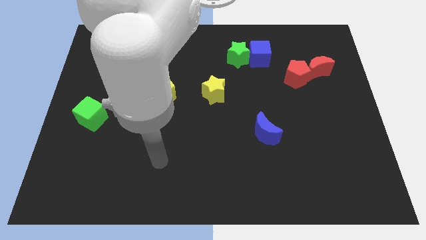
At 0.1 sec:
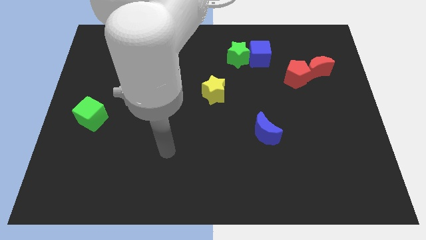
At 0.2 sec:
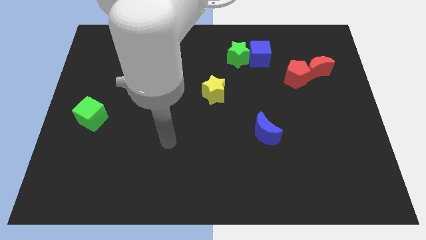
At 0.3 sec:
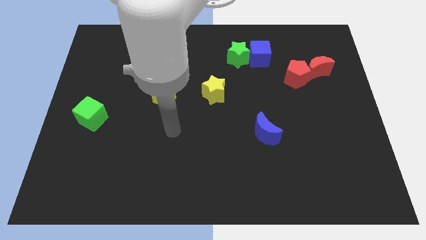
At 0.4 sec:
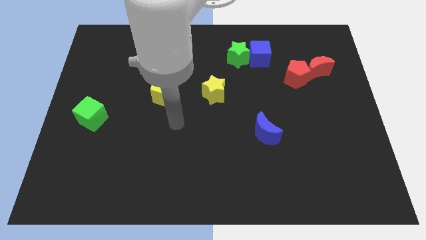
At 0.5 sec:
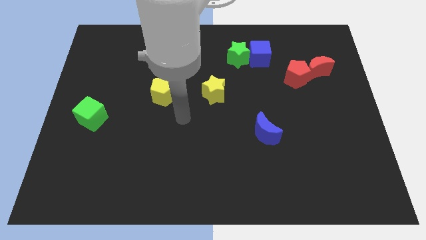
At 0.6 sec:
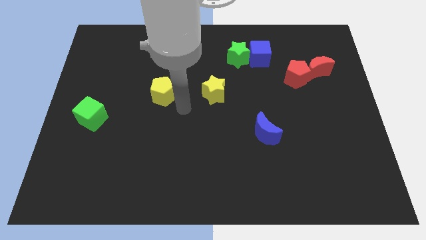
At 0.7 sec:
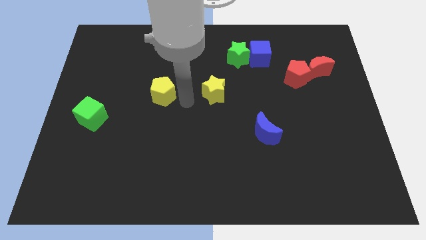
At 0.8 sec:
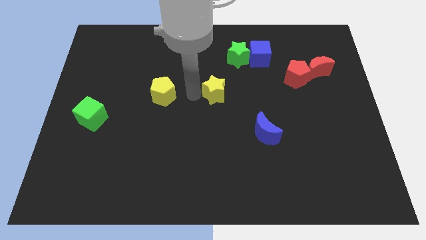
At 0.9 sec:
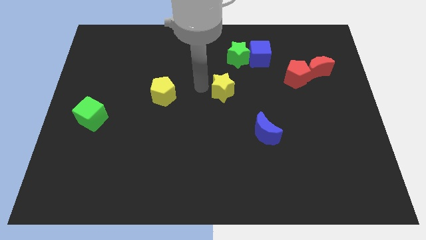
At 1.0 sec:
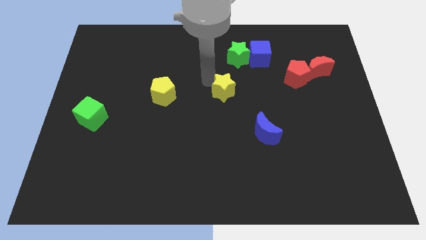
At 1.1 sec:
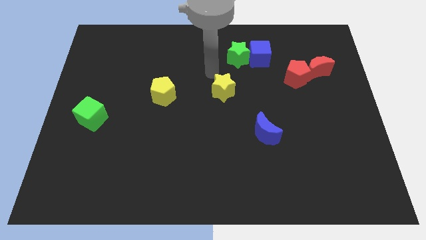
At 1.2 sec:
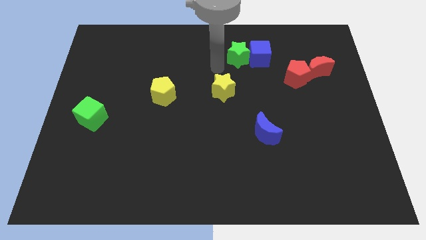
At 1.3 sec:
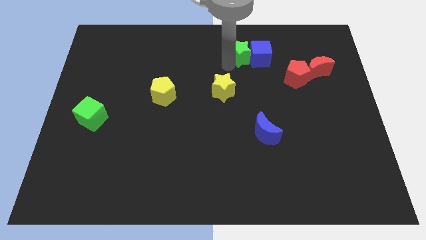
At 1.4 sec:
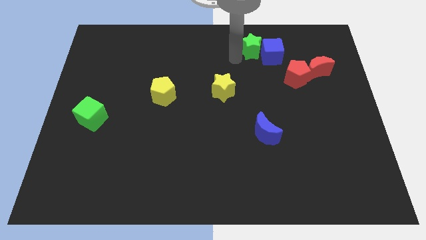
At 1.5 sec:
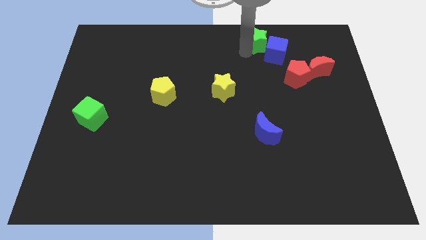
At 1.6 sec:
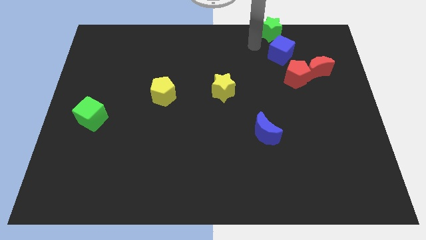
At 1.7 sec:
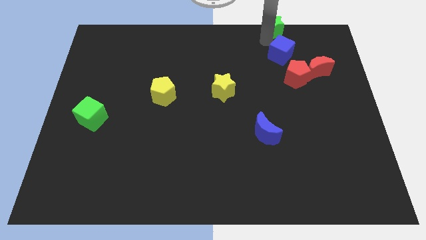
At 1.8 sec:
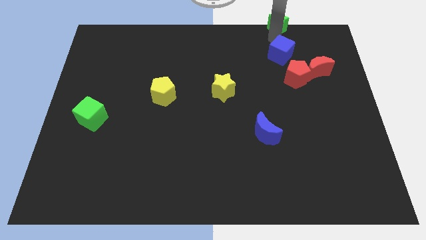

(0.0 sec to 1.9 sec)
pull the blue cube apart from the green star

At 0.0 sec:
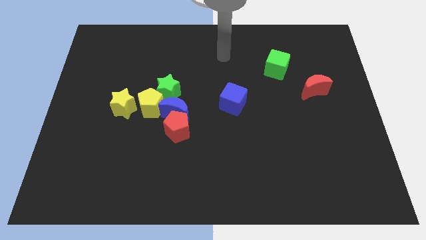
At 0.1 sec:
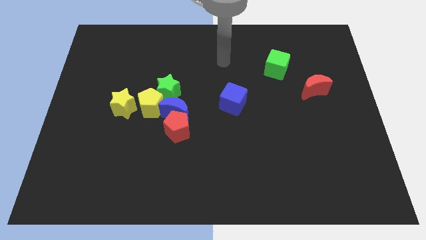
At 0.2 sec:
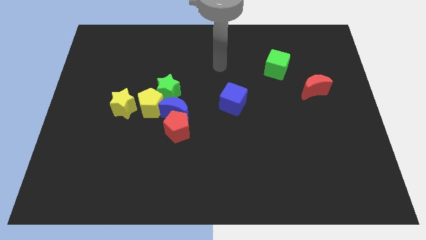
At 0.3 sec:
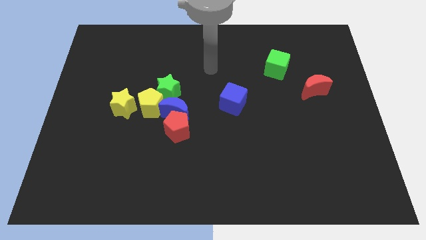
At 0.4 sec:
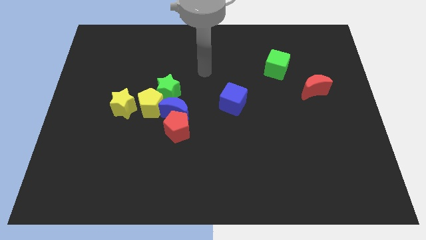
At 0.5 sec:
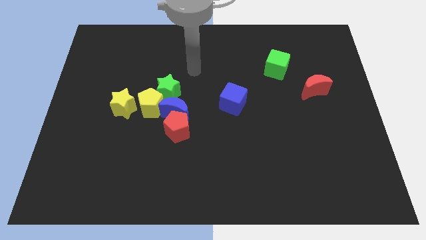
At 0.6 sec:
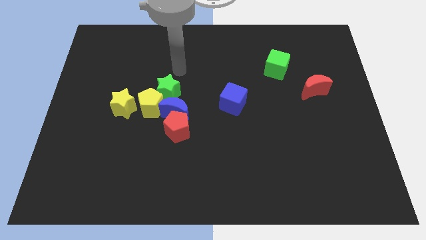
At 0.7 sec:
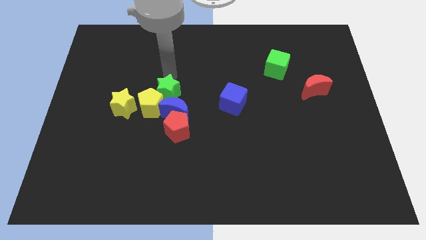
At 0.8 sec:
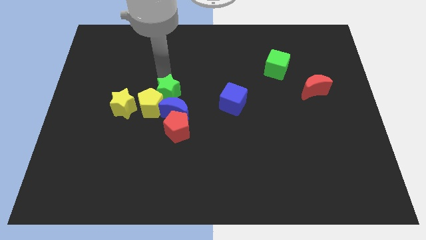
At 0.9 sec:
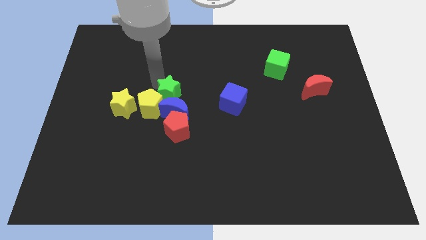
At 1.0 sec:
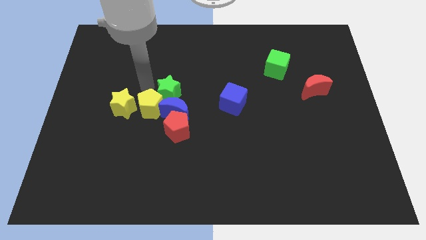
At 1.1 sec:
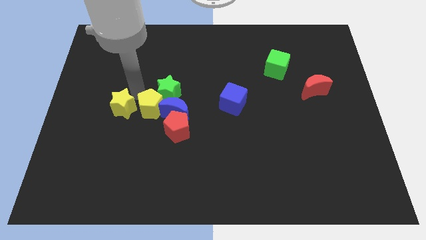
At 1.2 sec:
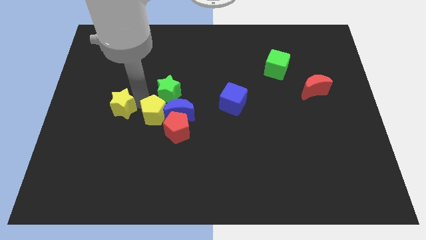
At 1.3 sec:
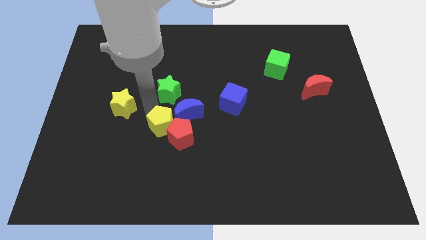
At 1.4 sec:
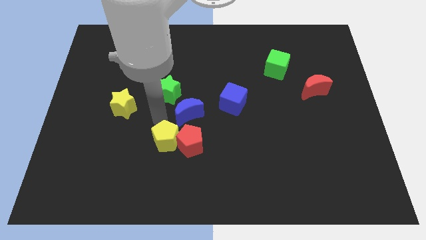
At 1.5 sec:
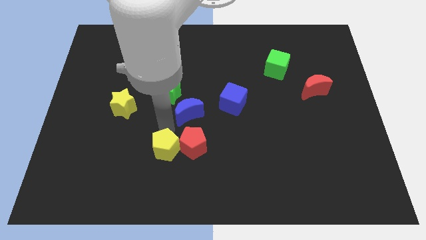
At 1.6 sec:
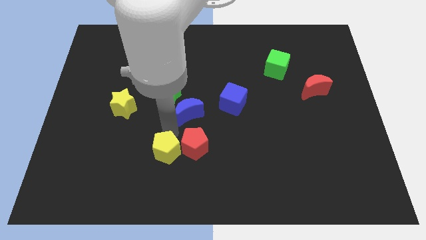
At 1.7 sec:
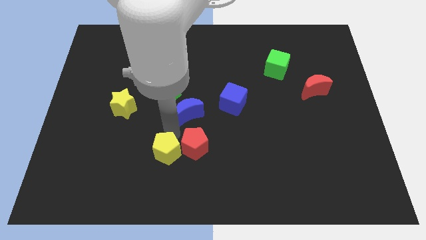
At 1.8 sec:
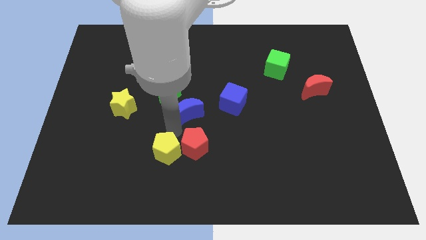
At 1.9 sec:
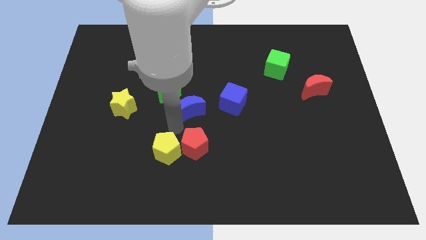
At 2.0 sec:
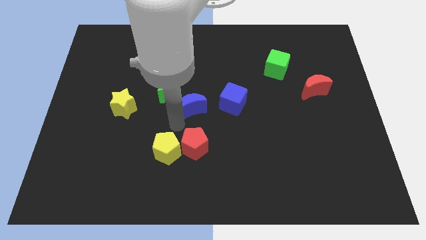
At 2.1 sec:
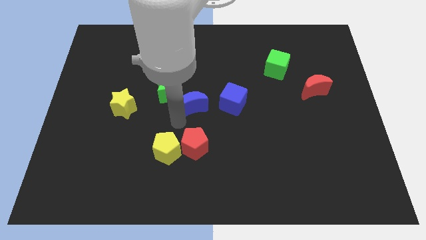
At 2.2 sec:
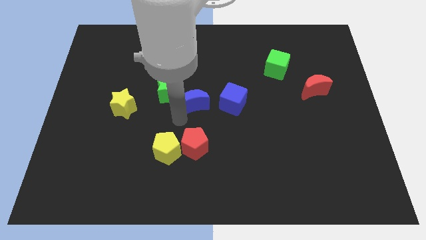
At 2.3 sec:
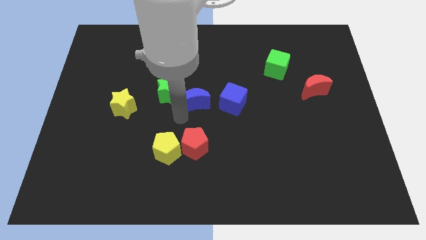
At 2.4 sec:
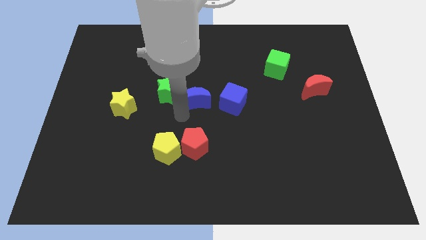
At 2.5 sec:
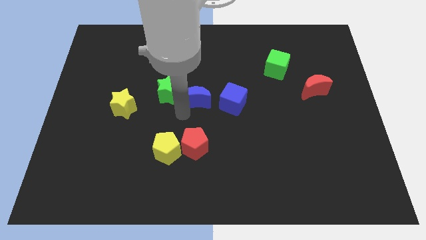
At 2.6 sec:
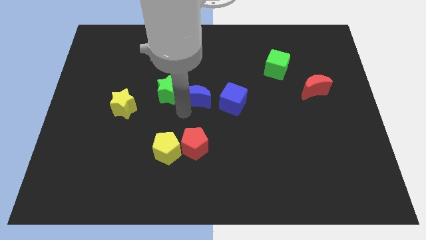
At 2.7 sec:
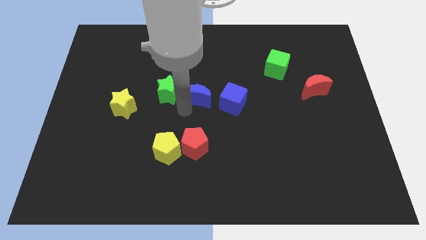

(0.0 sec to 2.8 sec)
separate the blue moon from the red pentagon, yellow pentagon, and green star

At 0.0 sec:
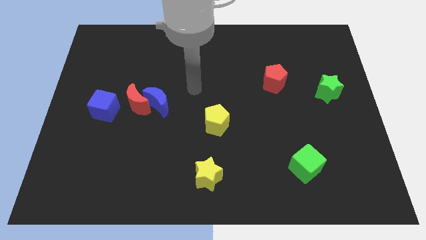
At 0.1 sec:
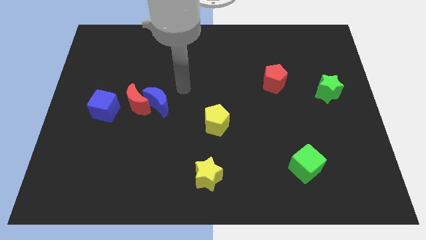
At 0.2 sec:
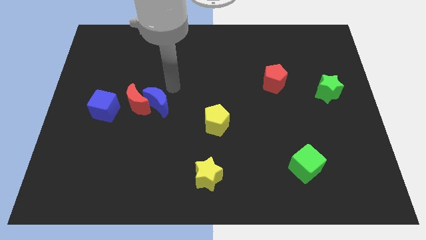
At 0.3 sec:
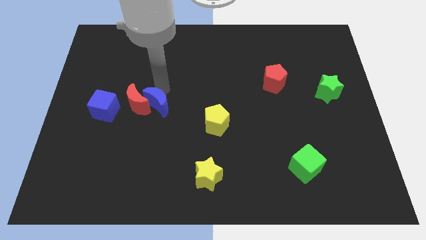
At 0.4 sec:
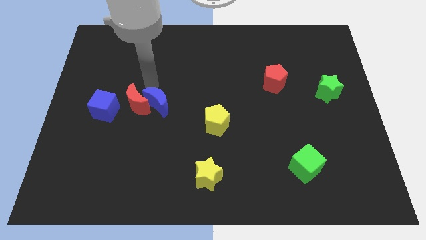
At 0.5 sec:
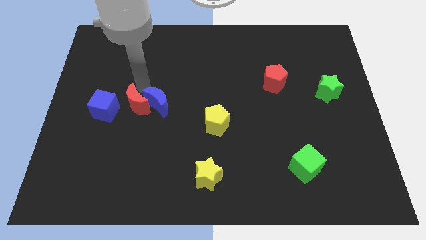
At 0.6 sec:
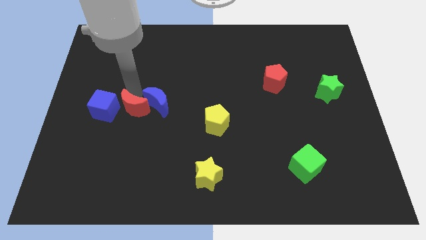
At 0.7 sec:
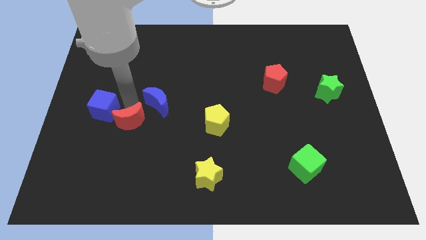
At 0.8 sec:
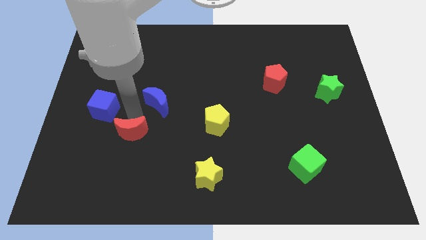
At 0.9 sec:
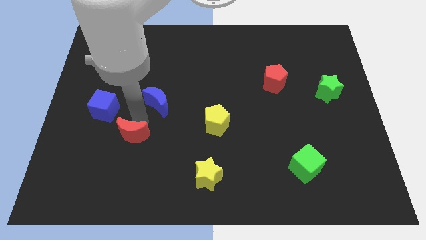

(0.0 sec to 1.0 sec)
pull the blue moon apart from the red moon

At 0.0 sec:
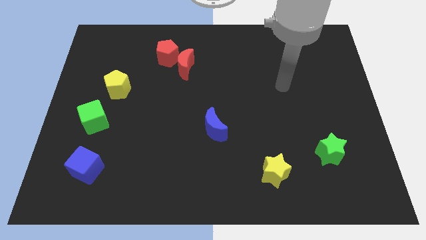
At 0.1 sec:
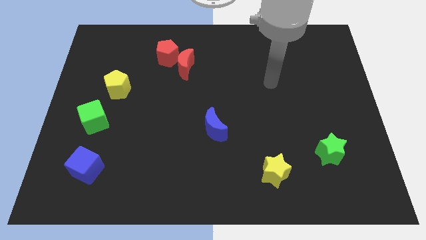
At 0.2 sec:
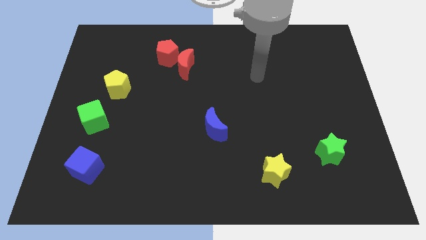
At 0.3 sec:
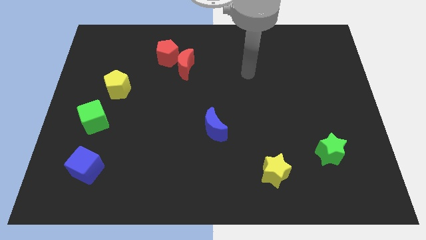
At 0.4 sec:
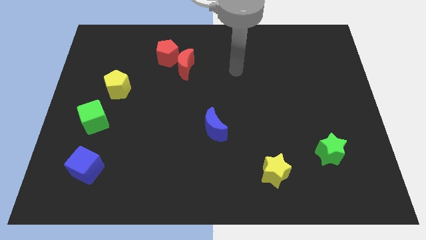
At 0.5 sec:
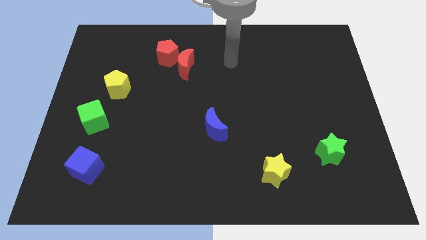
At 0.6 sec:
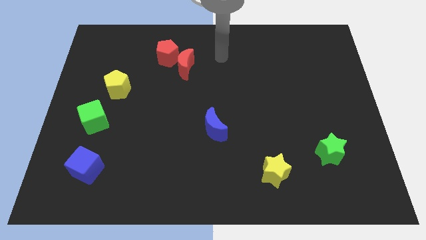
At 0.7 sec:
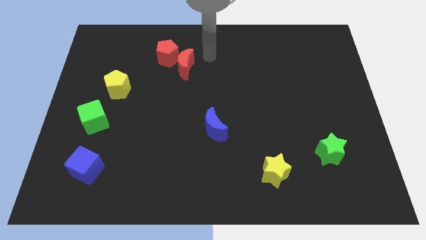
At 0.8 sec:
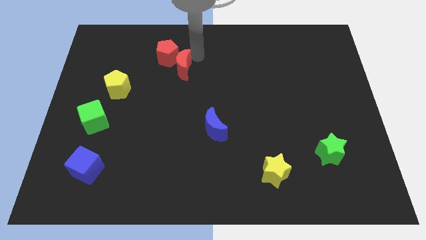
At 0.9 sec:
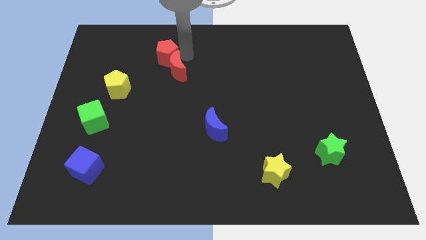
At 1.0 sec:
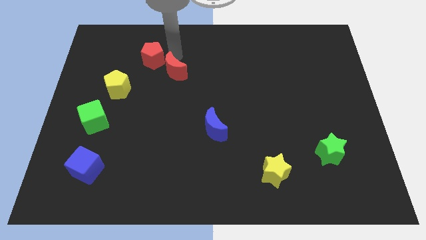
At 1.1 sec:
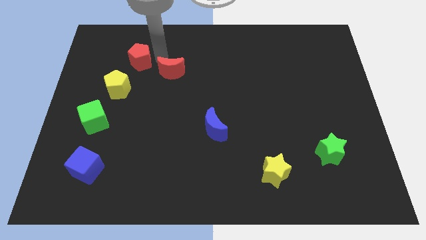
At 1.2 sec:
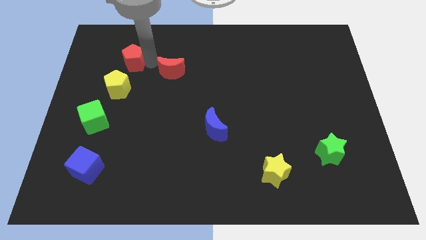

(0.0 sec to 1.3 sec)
separate the red moon from the red pentagon

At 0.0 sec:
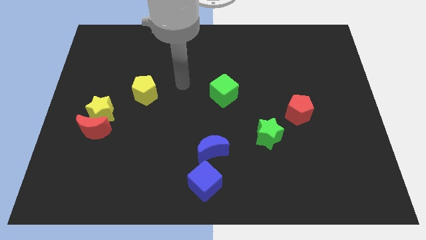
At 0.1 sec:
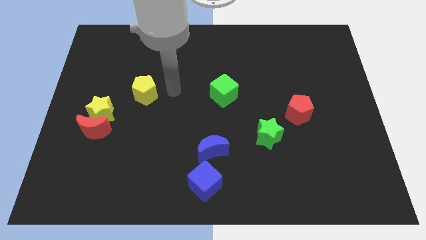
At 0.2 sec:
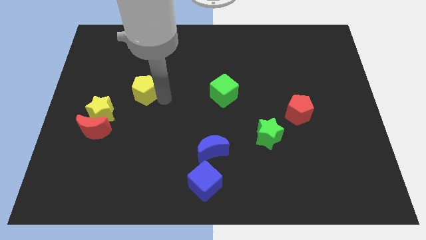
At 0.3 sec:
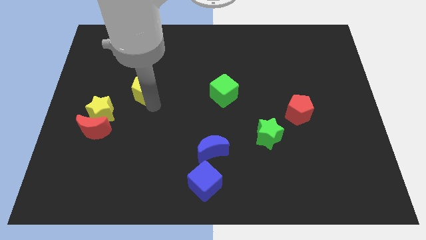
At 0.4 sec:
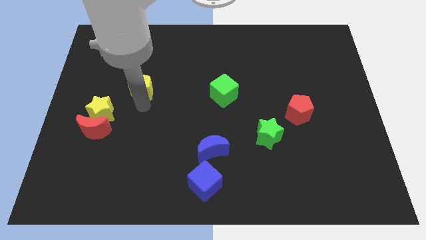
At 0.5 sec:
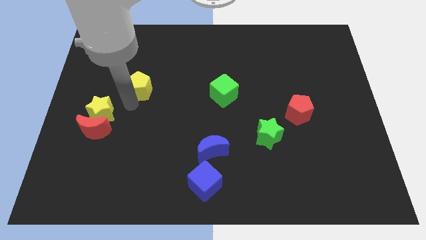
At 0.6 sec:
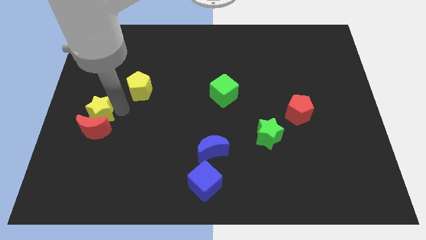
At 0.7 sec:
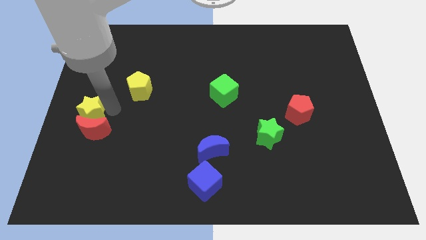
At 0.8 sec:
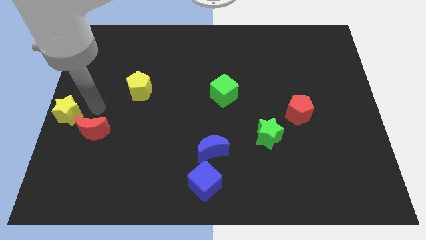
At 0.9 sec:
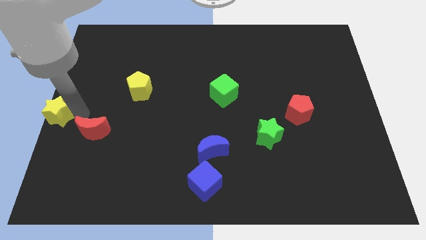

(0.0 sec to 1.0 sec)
pull the red moon apart from the yellow star

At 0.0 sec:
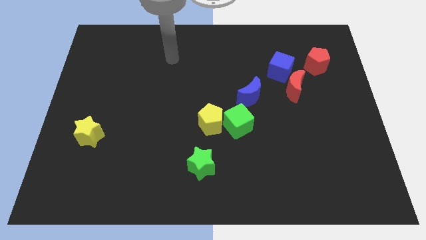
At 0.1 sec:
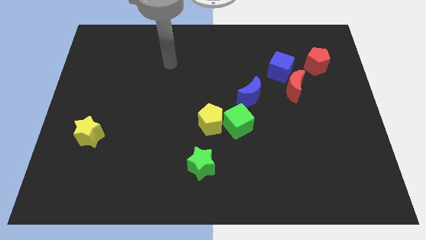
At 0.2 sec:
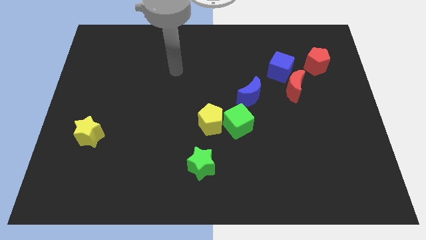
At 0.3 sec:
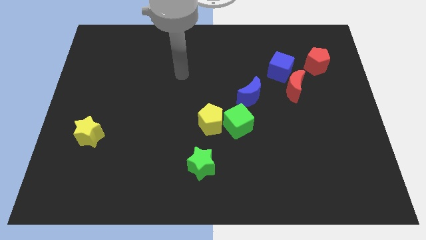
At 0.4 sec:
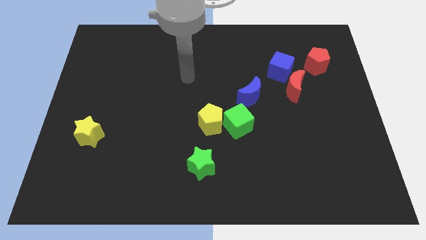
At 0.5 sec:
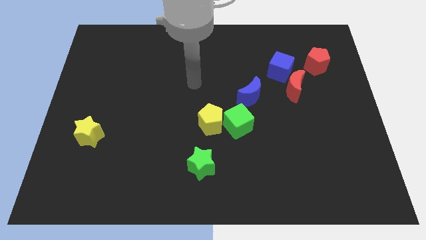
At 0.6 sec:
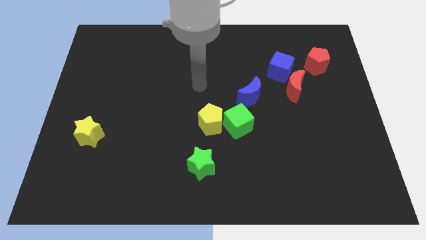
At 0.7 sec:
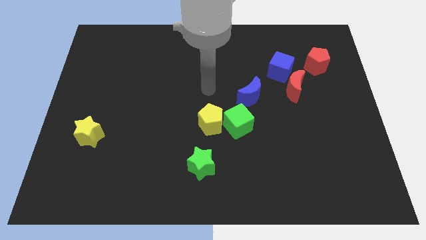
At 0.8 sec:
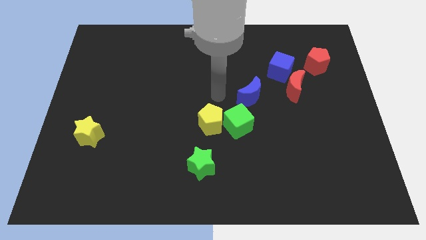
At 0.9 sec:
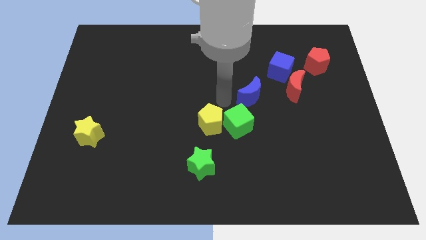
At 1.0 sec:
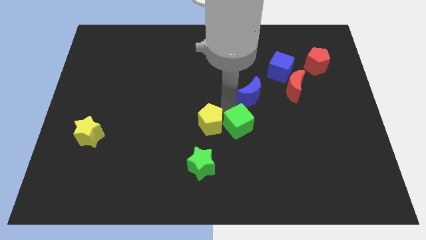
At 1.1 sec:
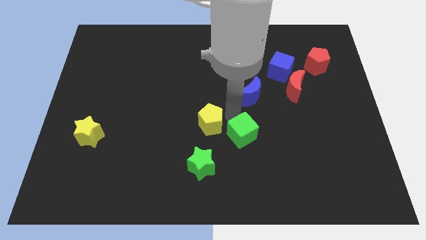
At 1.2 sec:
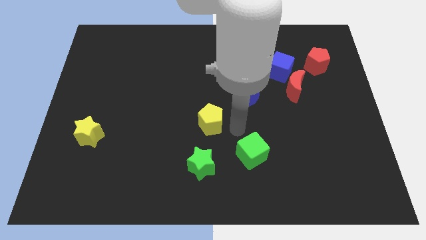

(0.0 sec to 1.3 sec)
pull the yellow pentagon apart from the green cube
